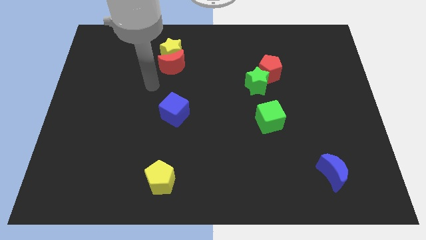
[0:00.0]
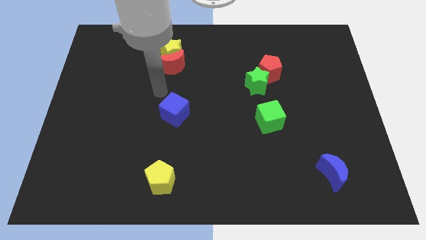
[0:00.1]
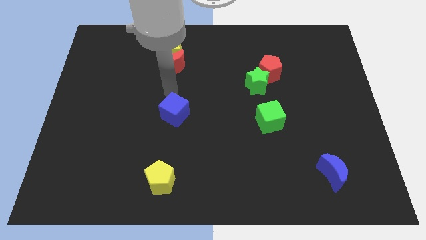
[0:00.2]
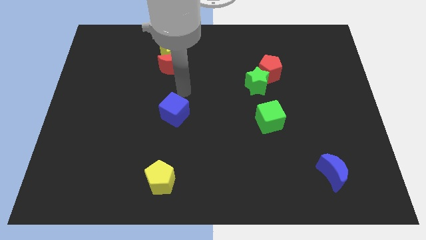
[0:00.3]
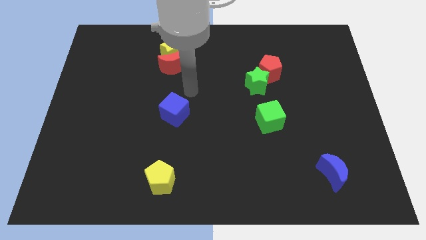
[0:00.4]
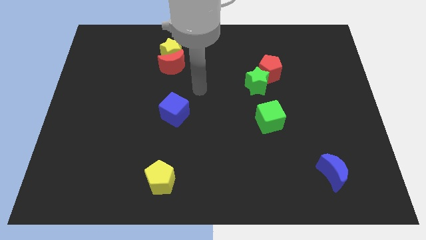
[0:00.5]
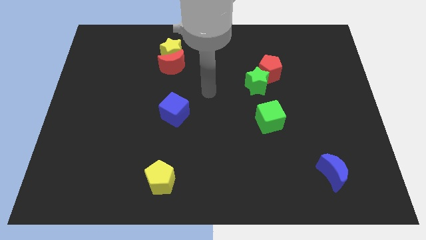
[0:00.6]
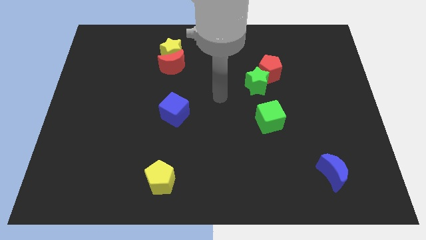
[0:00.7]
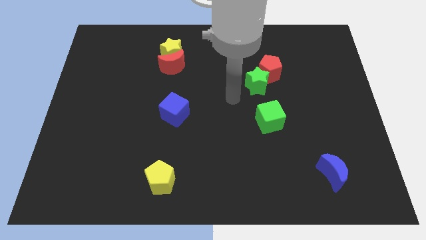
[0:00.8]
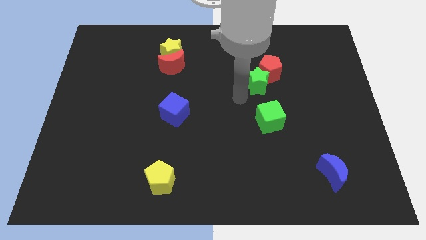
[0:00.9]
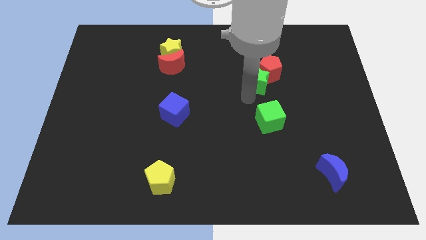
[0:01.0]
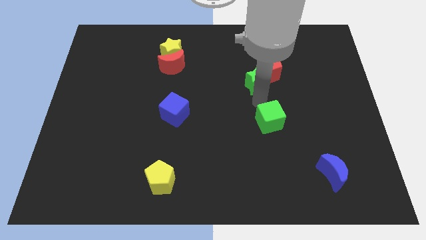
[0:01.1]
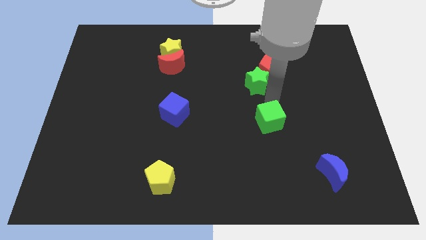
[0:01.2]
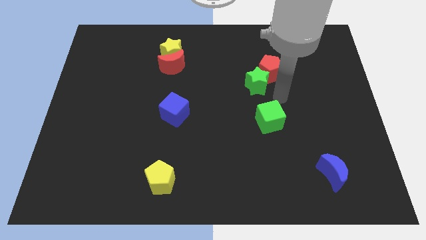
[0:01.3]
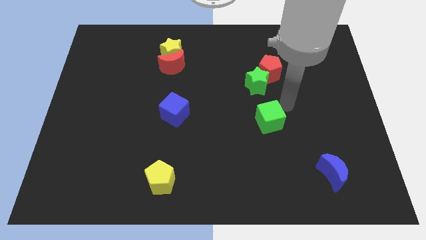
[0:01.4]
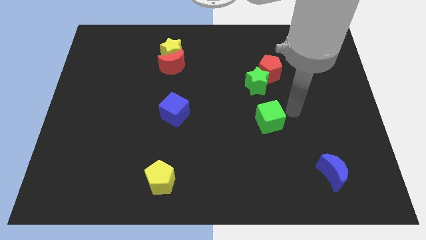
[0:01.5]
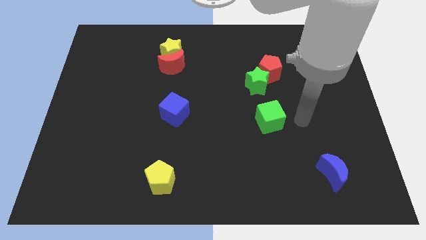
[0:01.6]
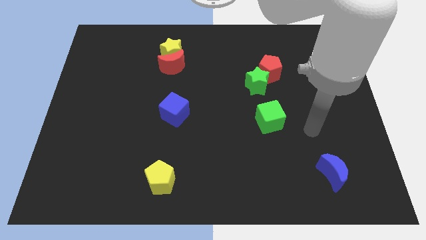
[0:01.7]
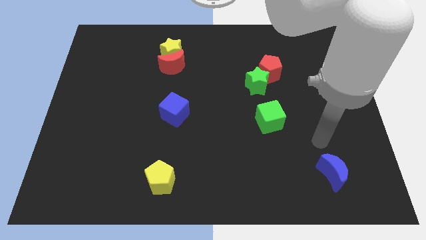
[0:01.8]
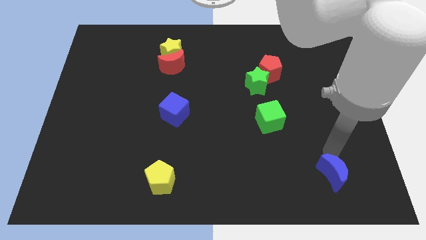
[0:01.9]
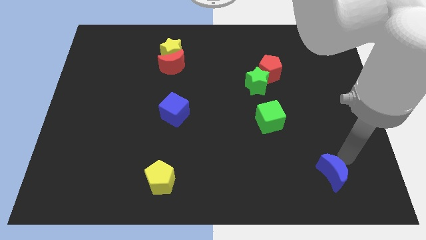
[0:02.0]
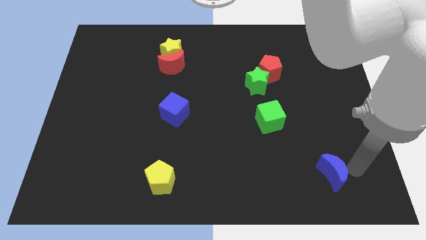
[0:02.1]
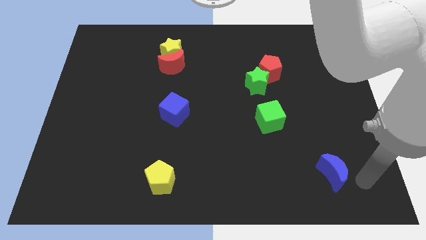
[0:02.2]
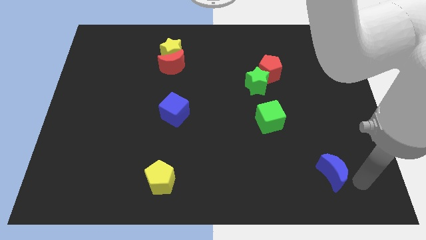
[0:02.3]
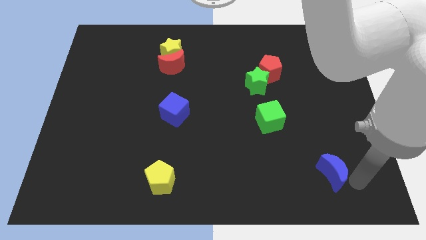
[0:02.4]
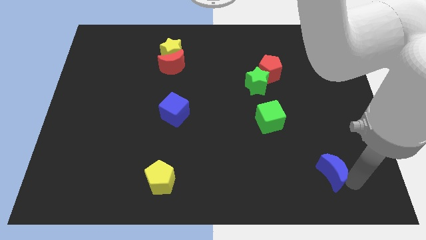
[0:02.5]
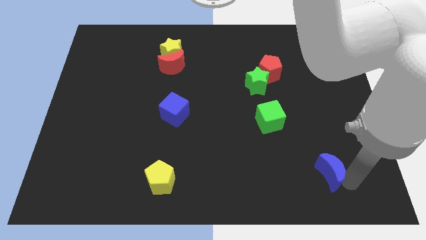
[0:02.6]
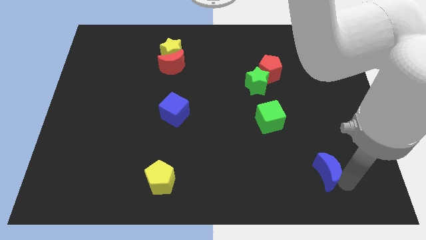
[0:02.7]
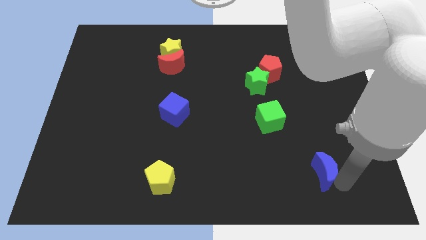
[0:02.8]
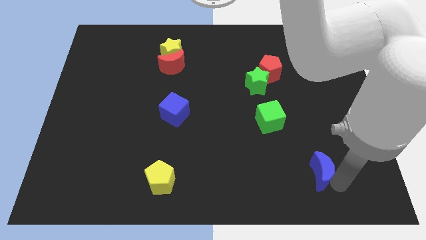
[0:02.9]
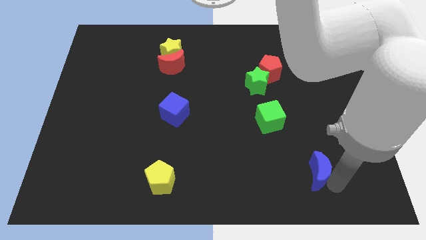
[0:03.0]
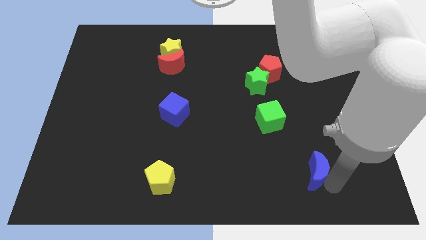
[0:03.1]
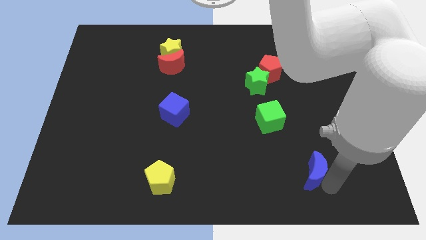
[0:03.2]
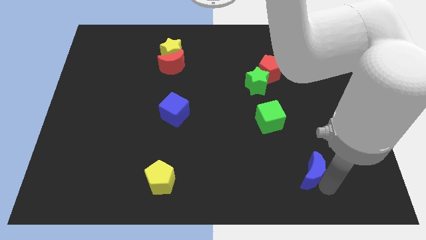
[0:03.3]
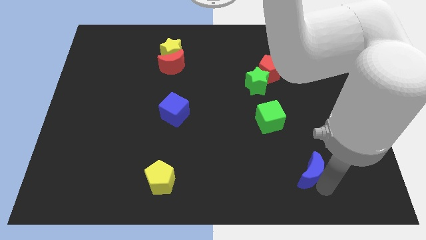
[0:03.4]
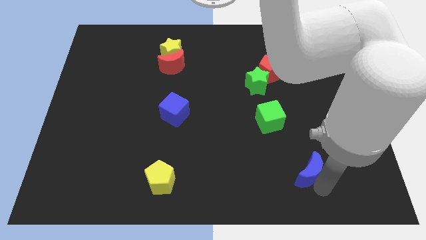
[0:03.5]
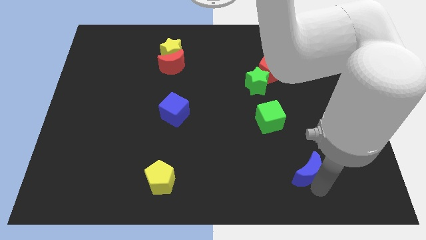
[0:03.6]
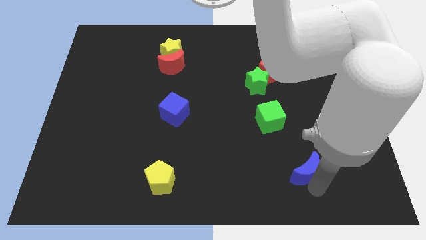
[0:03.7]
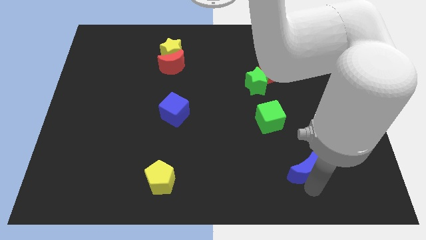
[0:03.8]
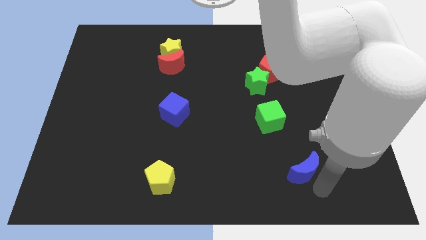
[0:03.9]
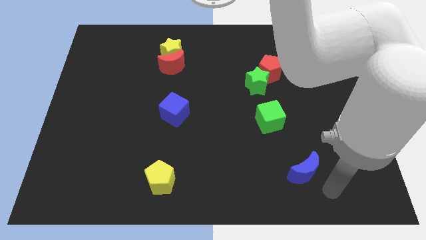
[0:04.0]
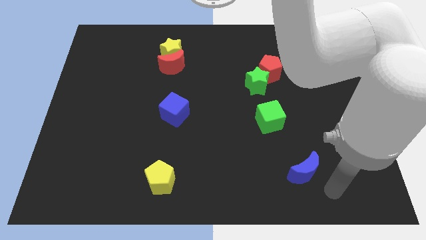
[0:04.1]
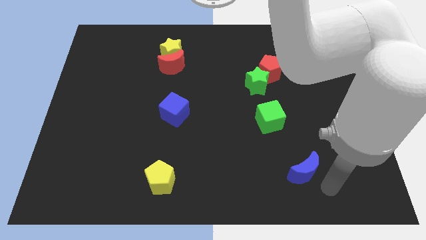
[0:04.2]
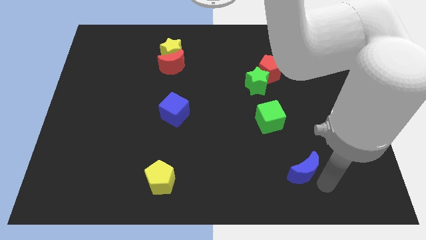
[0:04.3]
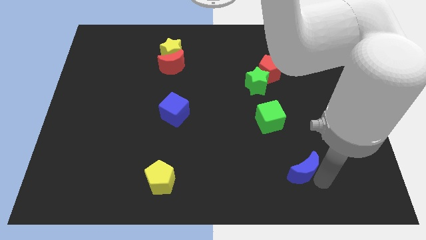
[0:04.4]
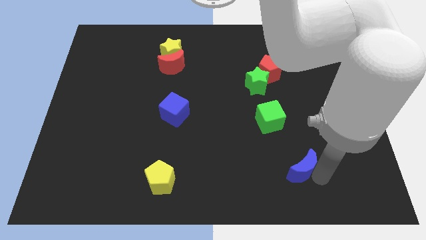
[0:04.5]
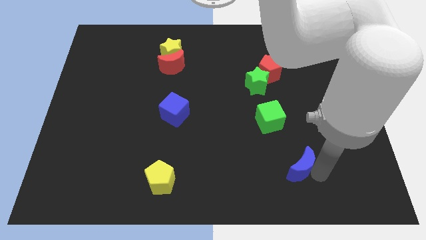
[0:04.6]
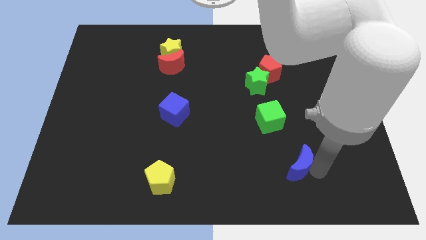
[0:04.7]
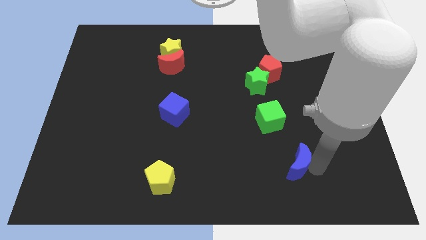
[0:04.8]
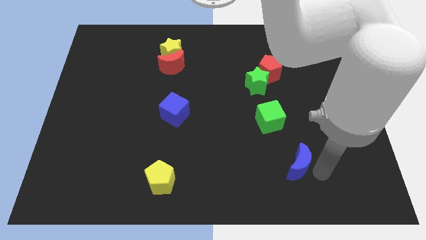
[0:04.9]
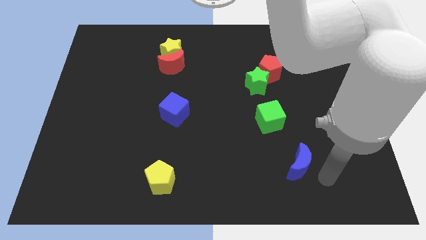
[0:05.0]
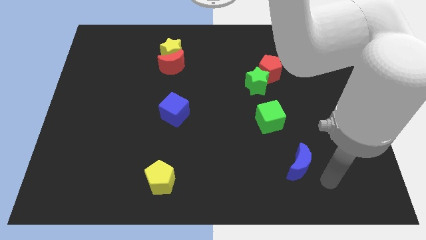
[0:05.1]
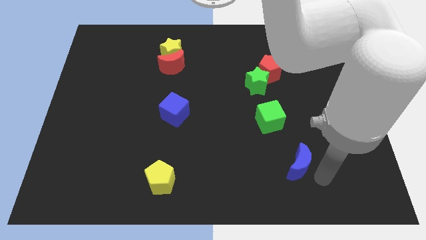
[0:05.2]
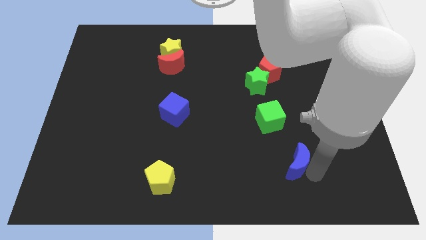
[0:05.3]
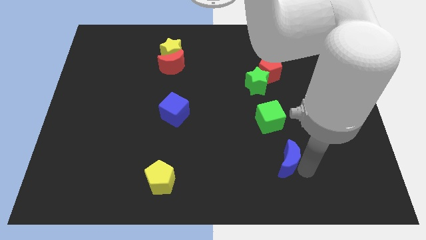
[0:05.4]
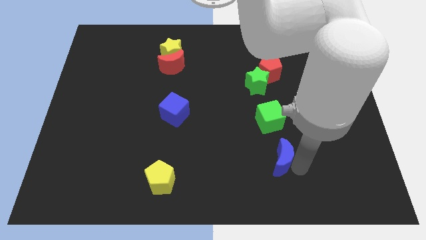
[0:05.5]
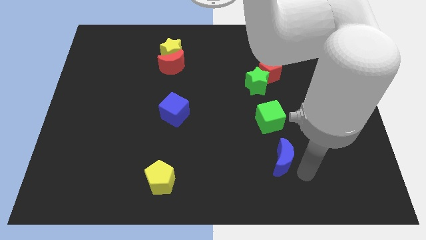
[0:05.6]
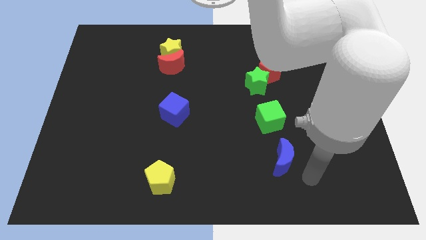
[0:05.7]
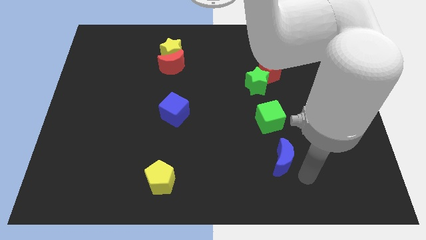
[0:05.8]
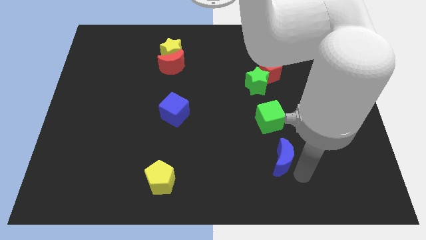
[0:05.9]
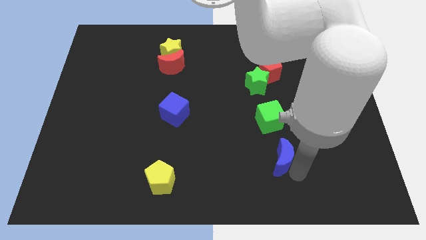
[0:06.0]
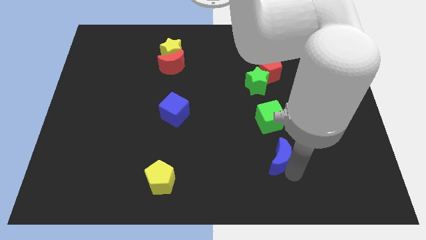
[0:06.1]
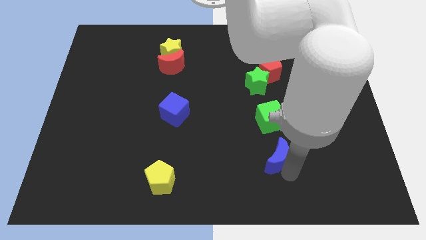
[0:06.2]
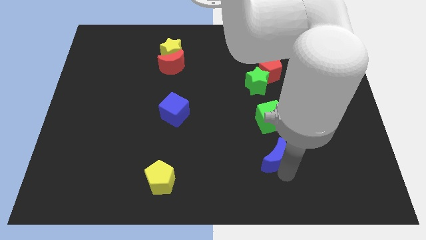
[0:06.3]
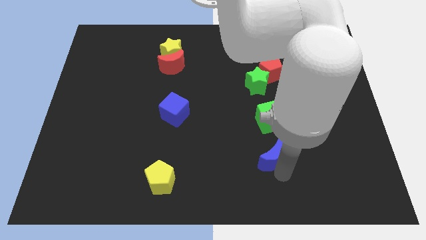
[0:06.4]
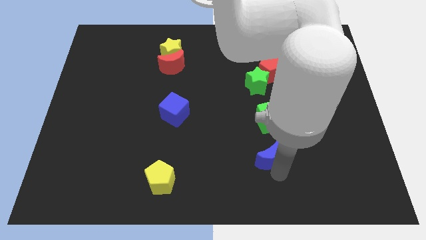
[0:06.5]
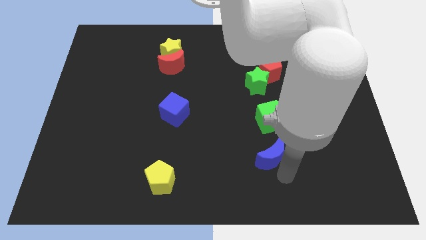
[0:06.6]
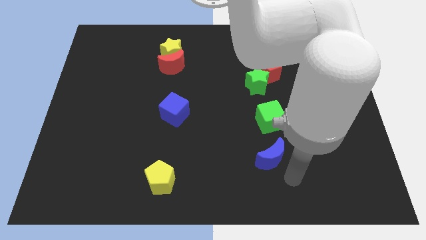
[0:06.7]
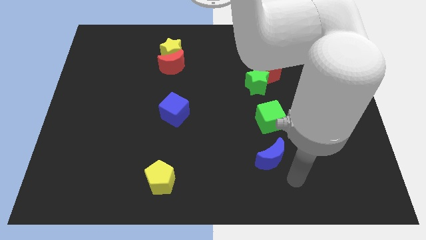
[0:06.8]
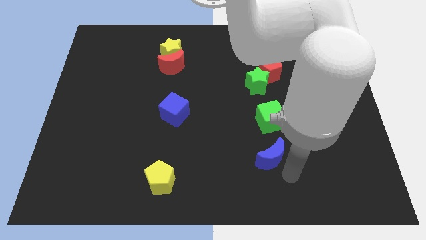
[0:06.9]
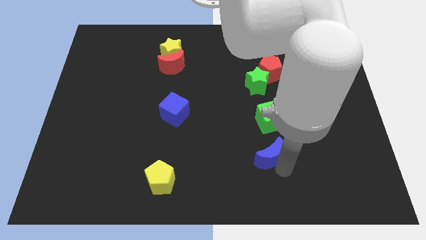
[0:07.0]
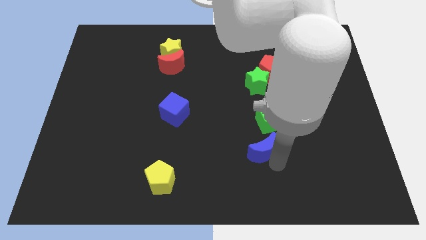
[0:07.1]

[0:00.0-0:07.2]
slide the blue moon to the bottom left side of the green cube
